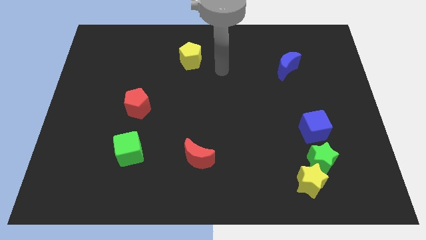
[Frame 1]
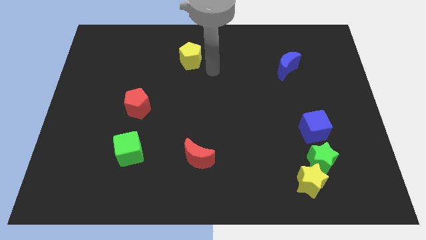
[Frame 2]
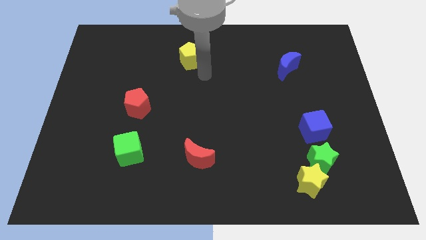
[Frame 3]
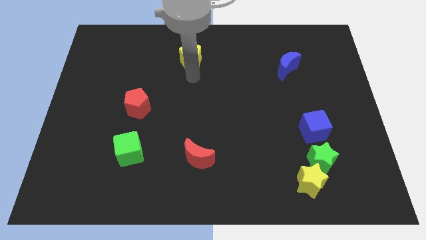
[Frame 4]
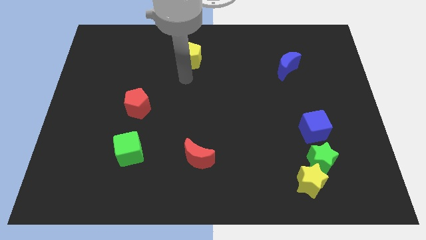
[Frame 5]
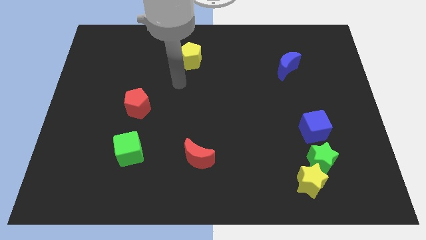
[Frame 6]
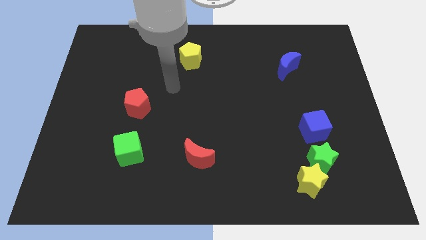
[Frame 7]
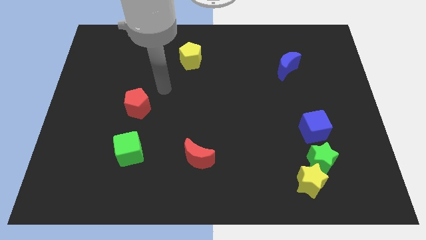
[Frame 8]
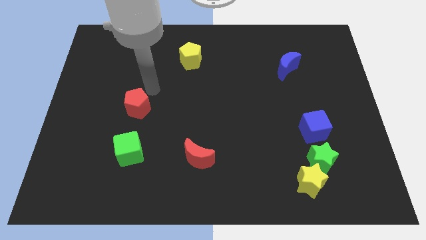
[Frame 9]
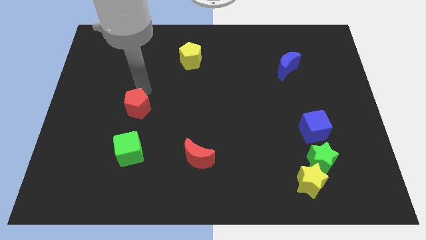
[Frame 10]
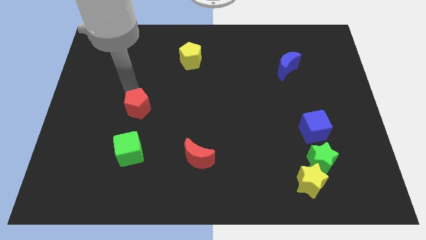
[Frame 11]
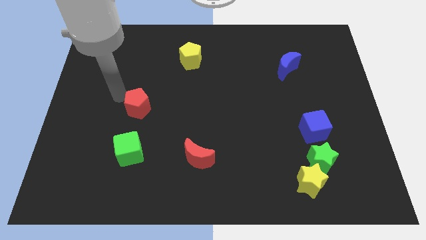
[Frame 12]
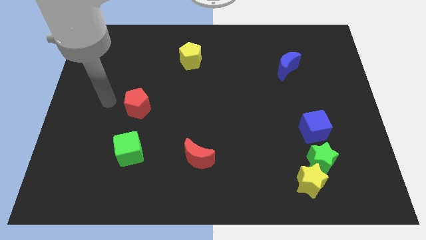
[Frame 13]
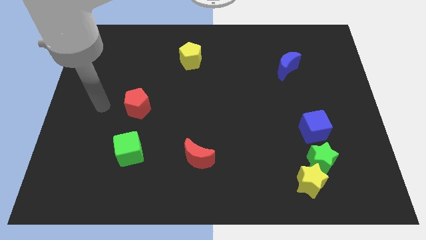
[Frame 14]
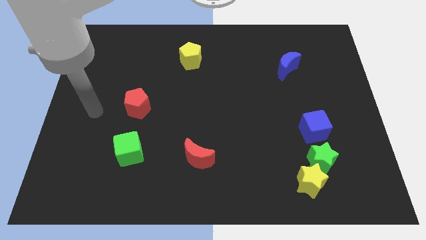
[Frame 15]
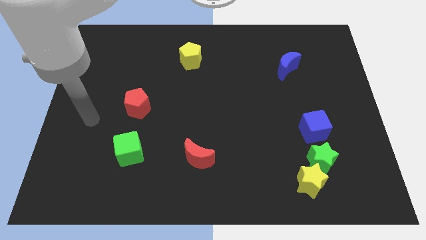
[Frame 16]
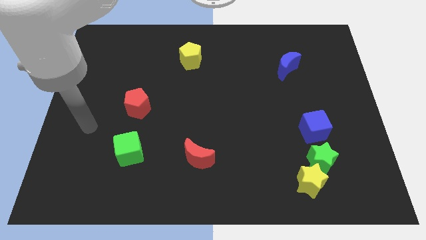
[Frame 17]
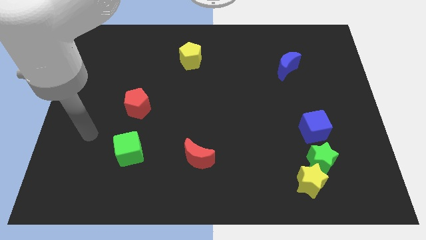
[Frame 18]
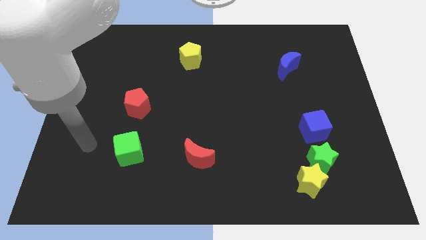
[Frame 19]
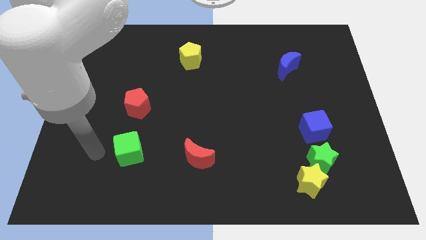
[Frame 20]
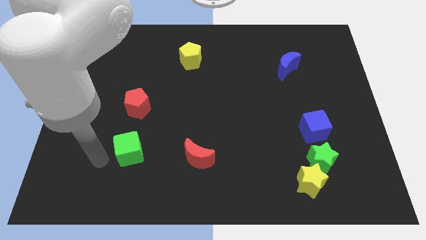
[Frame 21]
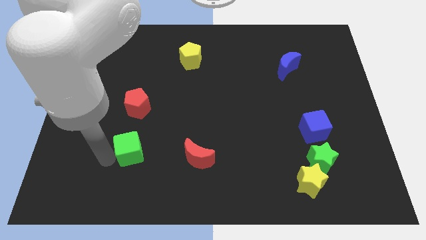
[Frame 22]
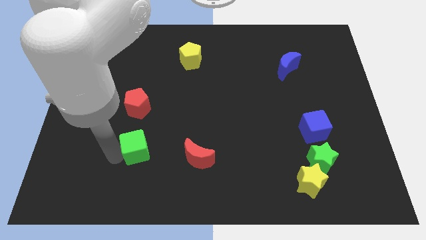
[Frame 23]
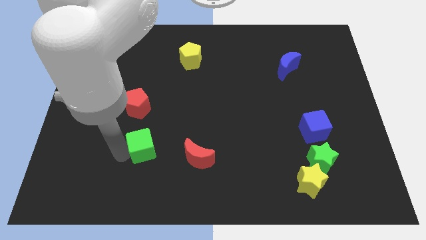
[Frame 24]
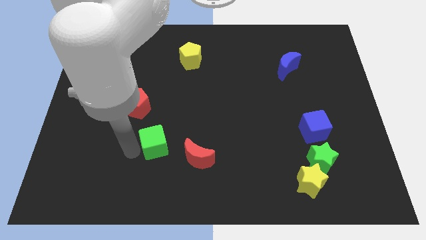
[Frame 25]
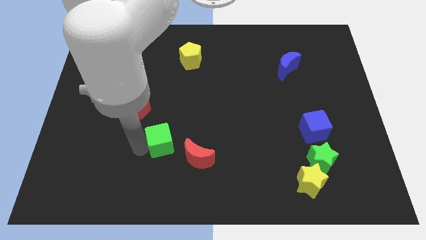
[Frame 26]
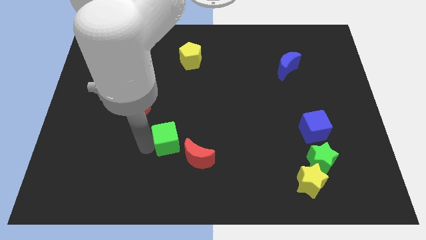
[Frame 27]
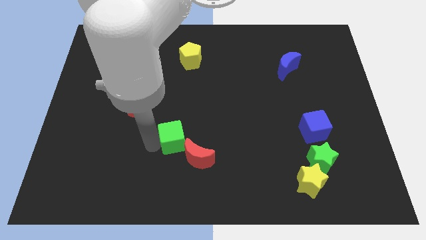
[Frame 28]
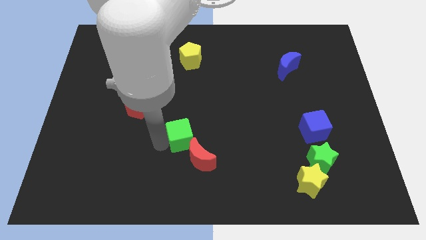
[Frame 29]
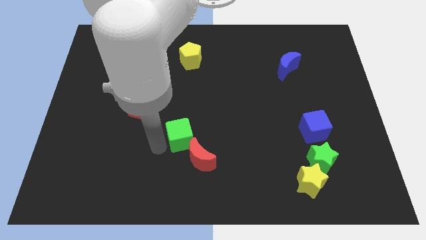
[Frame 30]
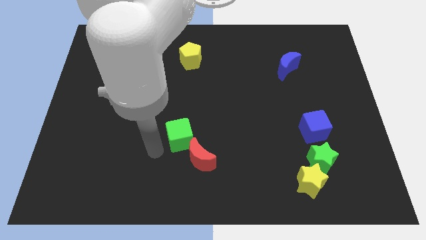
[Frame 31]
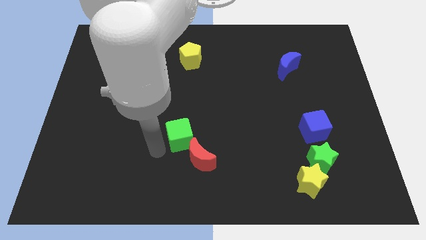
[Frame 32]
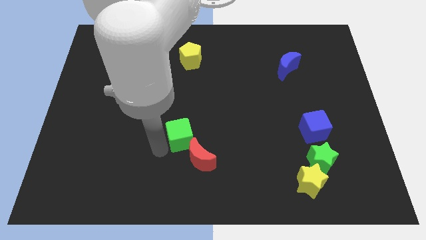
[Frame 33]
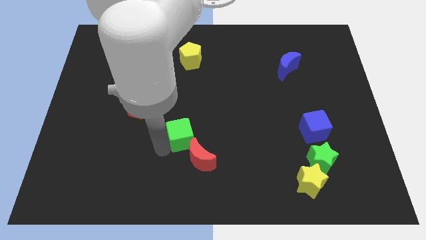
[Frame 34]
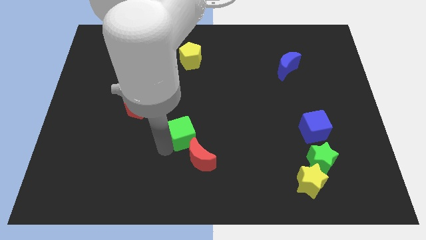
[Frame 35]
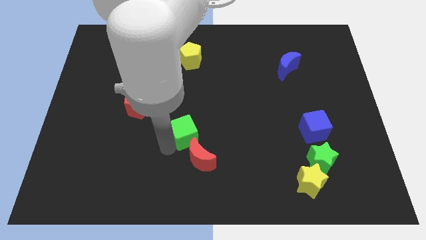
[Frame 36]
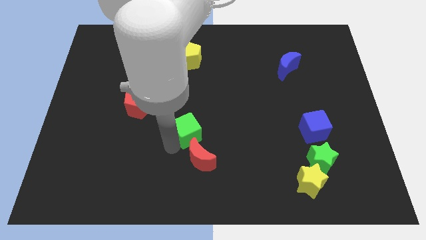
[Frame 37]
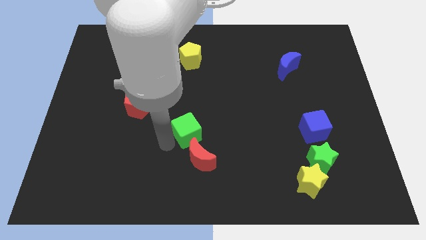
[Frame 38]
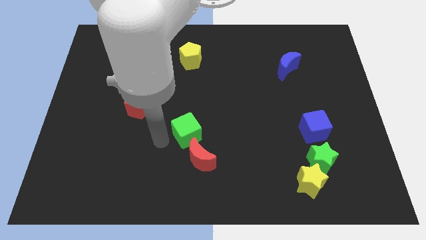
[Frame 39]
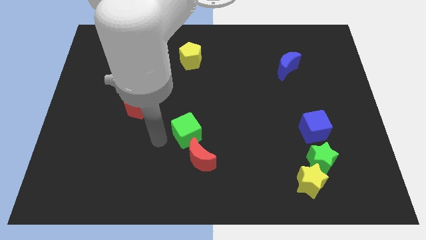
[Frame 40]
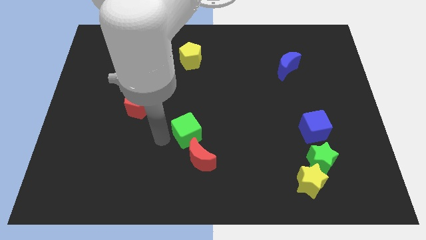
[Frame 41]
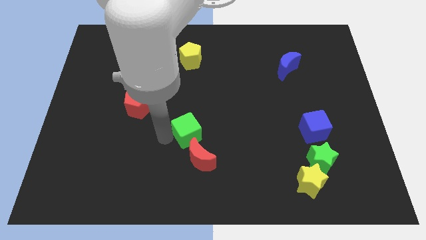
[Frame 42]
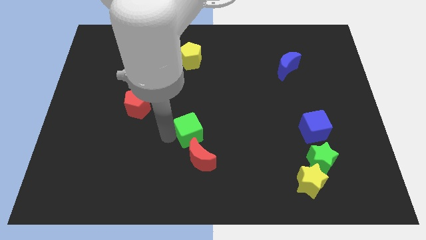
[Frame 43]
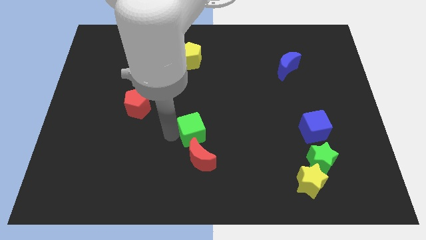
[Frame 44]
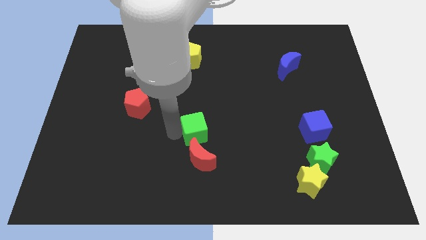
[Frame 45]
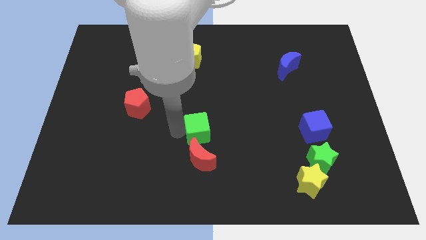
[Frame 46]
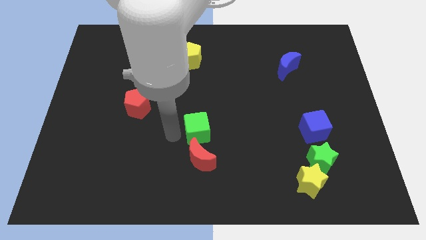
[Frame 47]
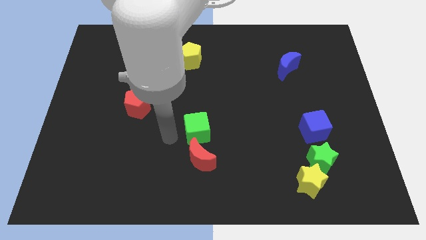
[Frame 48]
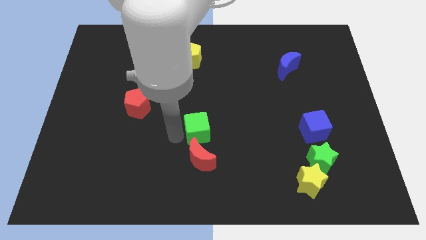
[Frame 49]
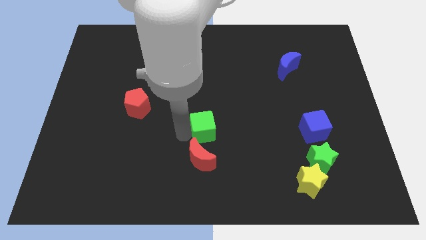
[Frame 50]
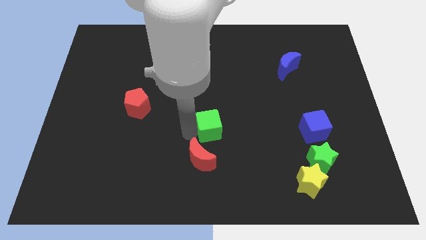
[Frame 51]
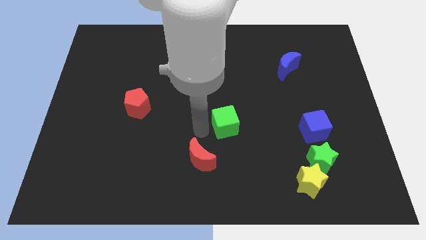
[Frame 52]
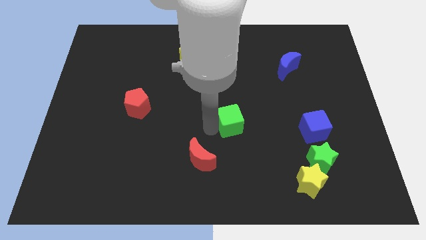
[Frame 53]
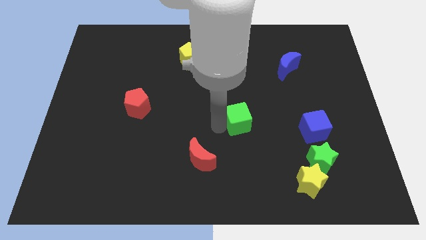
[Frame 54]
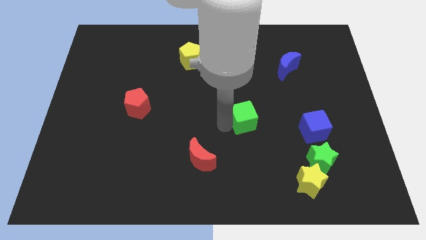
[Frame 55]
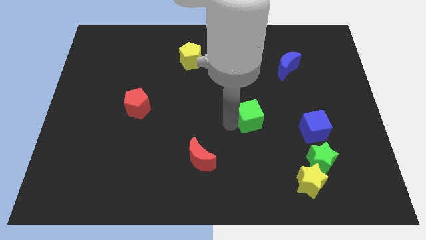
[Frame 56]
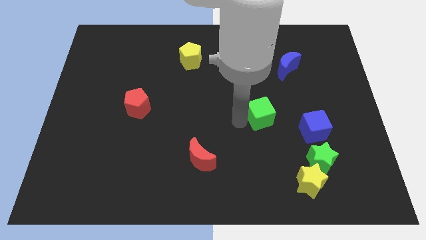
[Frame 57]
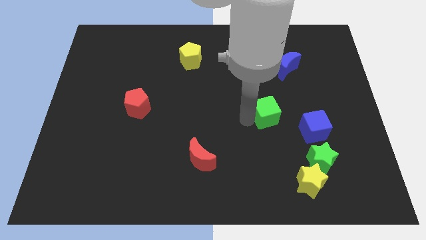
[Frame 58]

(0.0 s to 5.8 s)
put the green cube to the top left side of the blue cube

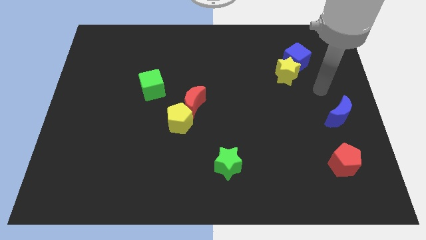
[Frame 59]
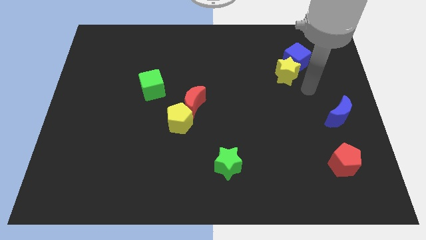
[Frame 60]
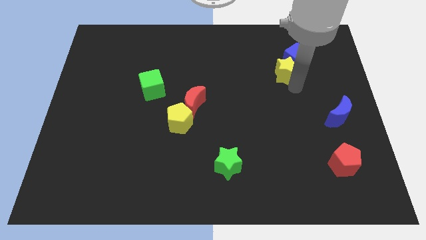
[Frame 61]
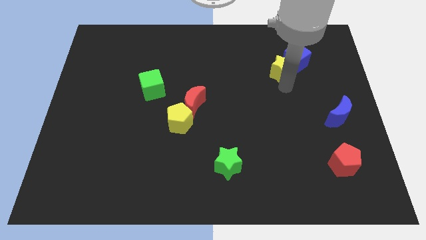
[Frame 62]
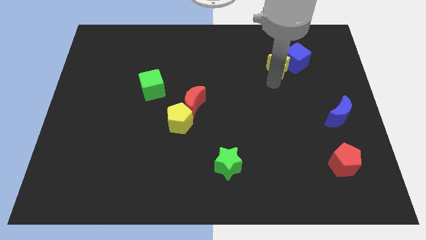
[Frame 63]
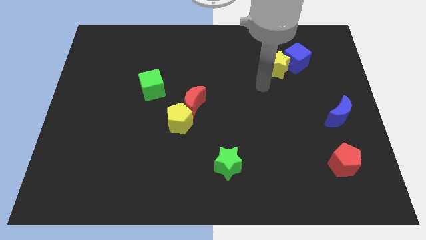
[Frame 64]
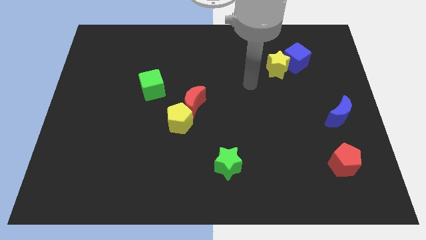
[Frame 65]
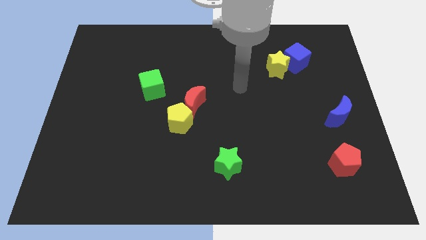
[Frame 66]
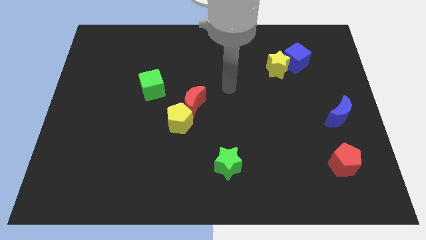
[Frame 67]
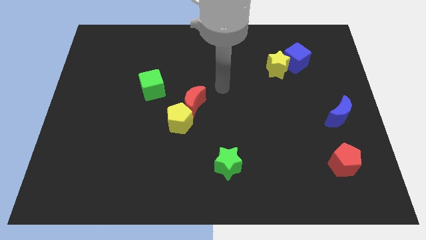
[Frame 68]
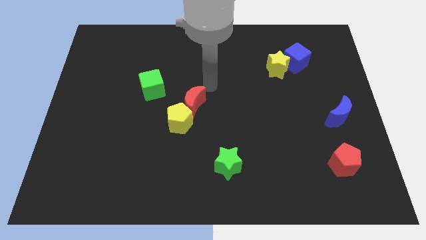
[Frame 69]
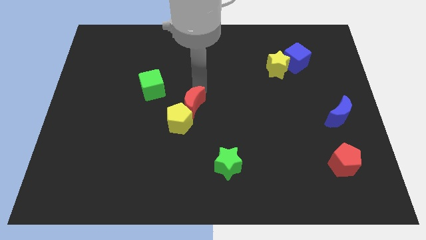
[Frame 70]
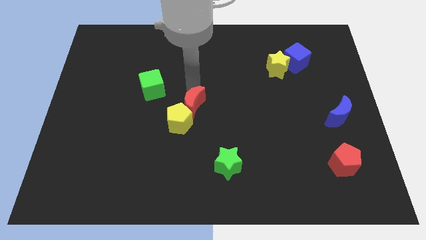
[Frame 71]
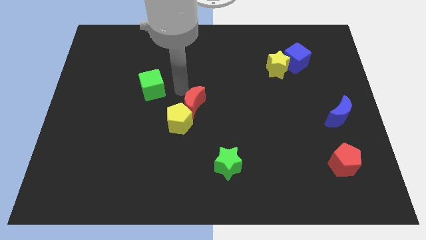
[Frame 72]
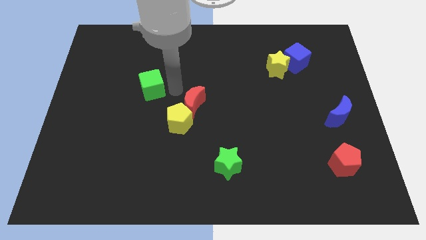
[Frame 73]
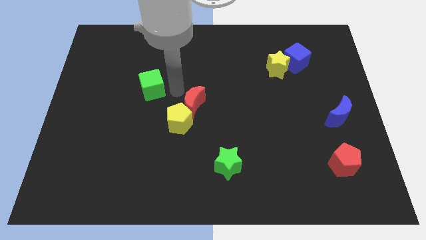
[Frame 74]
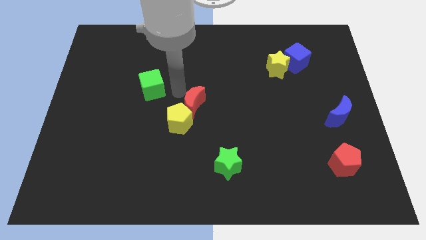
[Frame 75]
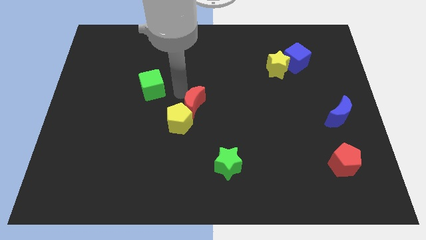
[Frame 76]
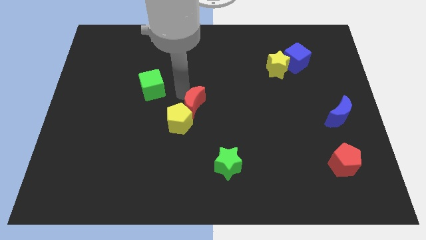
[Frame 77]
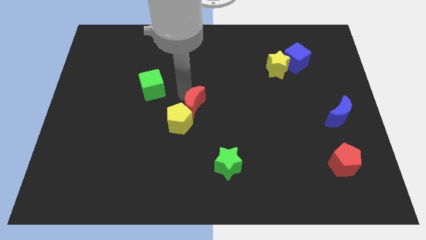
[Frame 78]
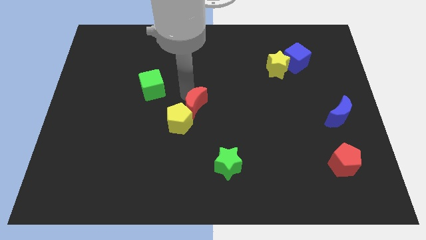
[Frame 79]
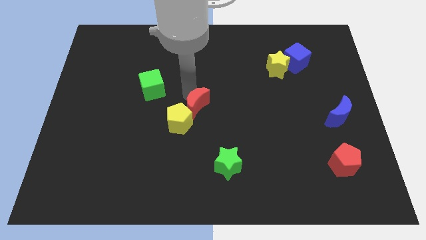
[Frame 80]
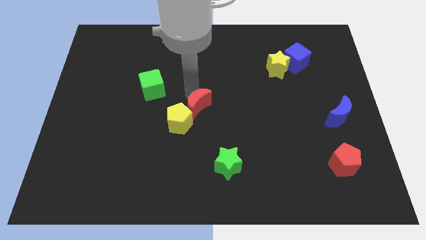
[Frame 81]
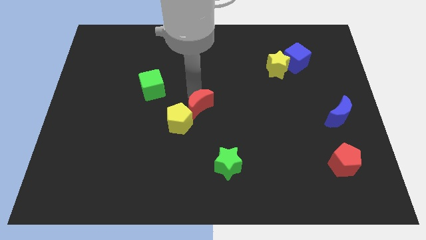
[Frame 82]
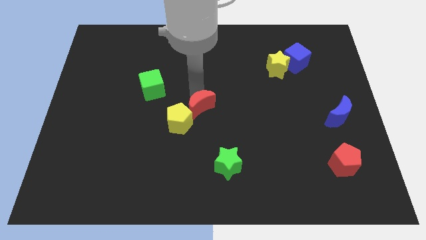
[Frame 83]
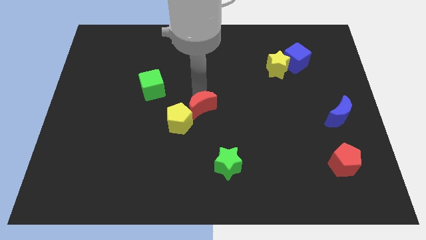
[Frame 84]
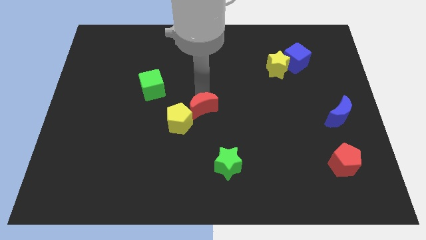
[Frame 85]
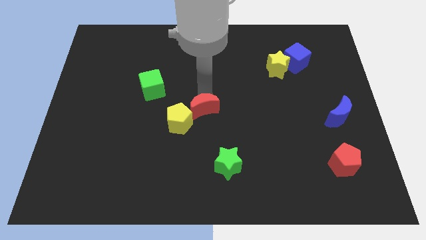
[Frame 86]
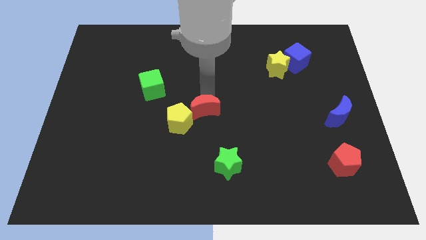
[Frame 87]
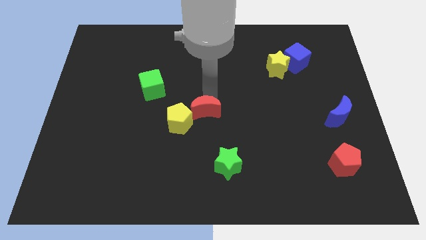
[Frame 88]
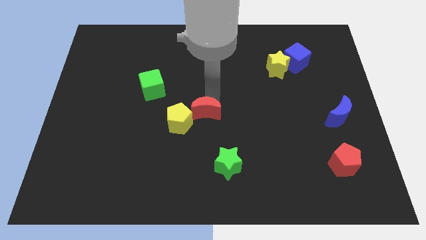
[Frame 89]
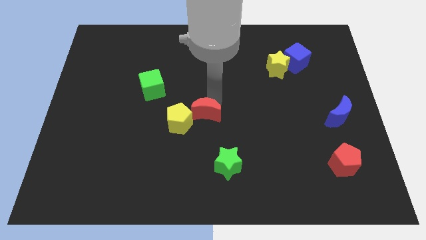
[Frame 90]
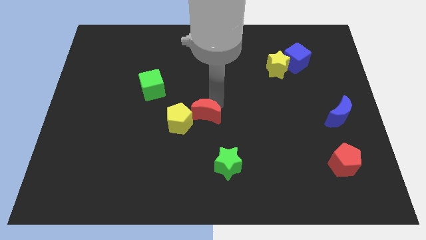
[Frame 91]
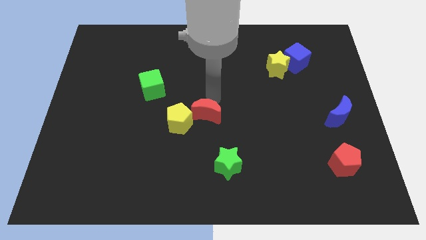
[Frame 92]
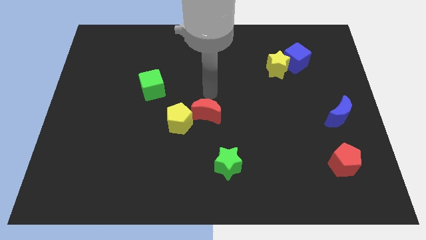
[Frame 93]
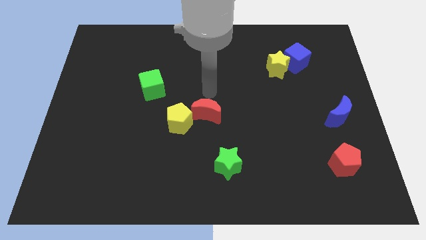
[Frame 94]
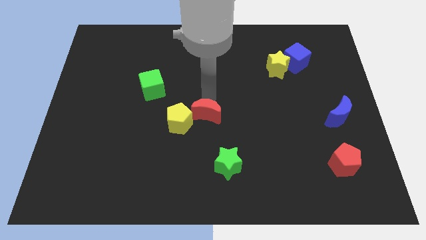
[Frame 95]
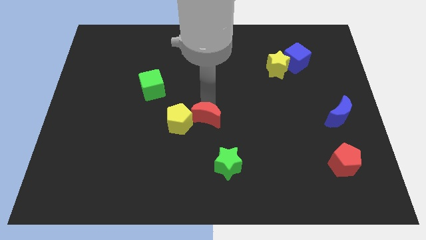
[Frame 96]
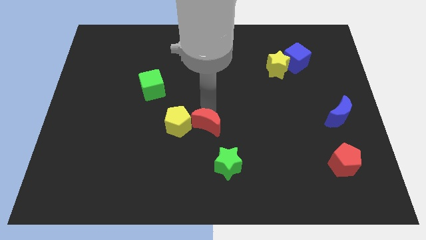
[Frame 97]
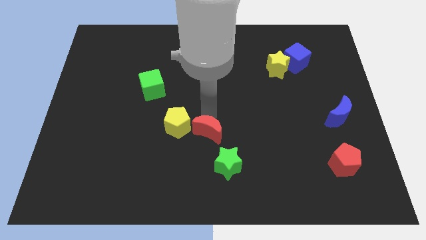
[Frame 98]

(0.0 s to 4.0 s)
push the red moon diagonally up and to the left of the green star
